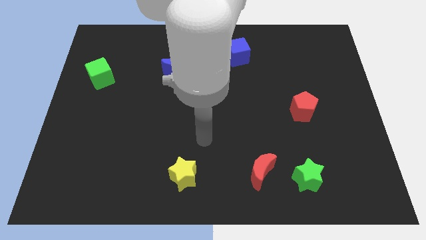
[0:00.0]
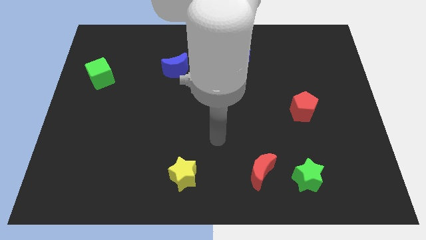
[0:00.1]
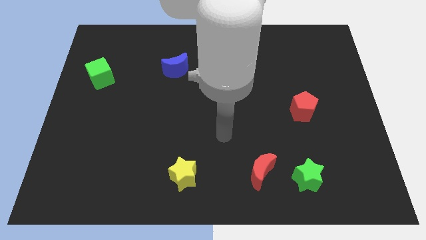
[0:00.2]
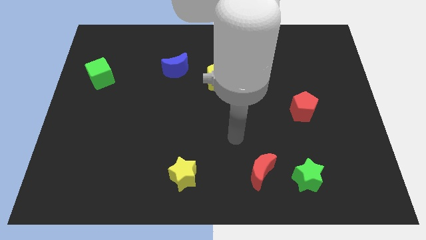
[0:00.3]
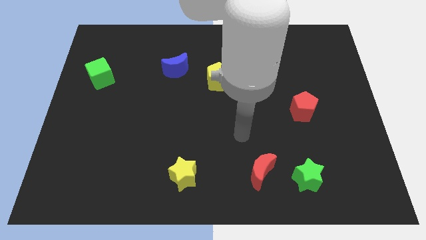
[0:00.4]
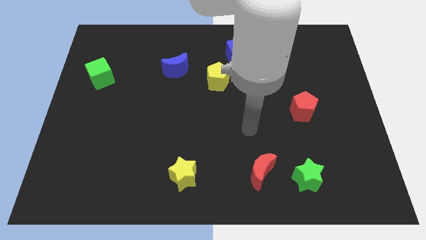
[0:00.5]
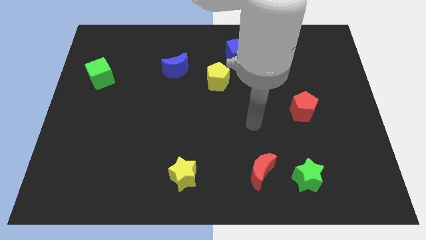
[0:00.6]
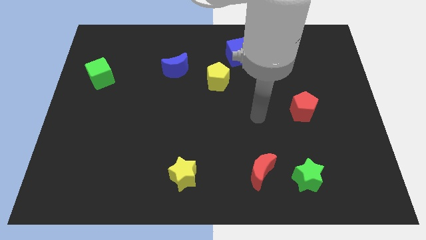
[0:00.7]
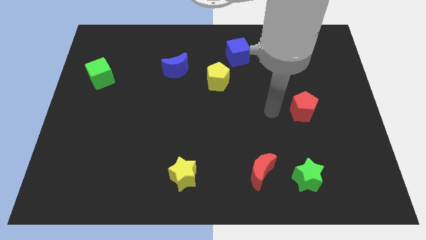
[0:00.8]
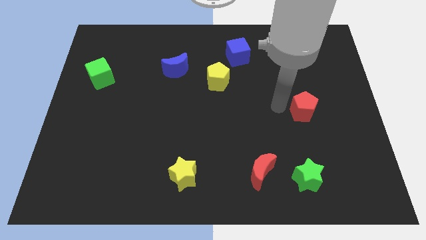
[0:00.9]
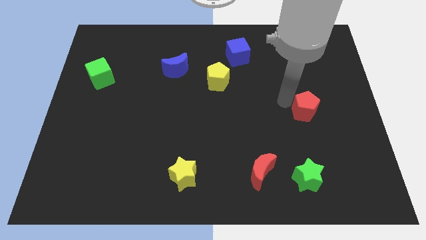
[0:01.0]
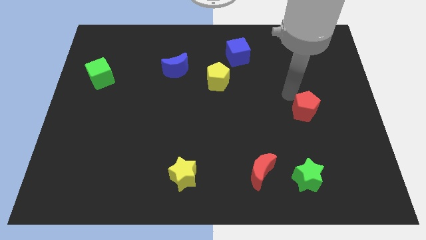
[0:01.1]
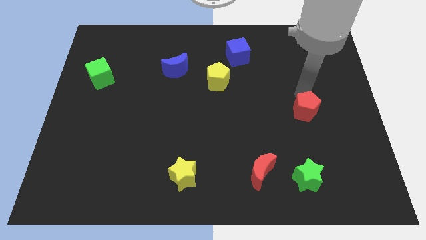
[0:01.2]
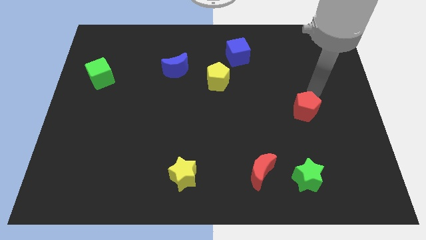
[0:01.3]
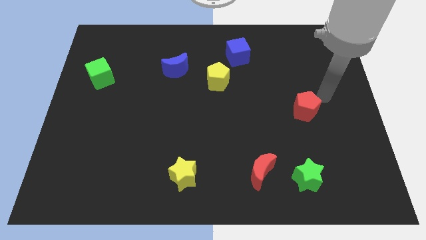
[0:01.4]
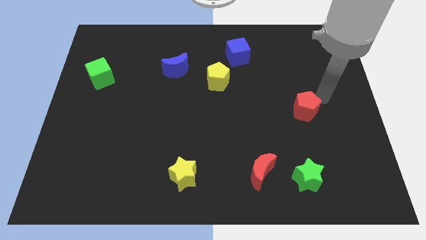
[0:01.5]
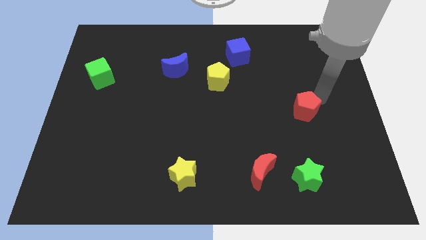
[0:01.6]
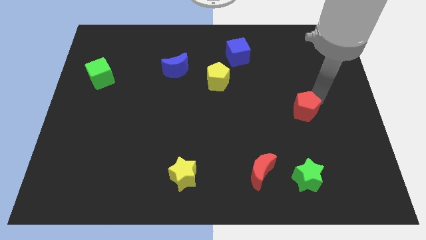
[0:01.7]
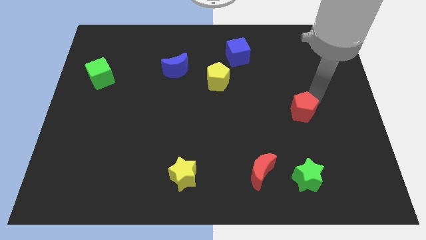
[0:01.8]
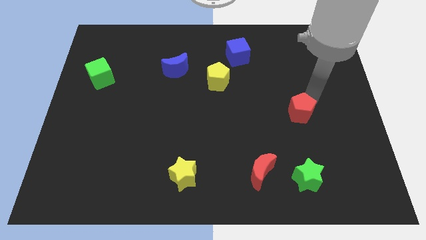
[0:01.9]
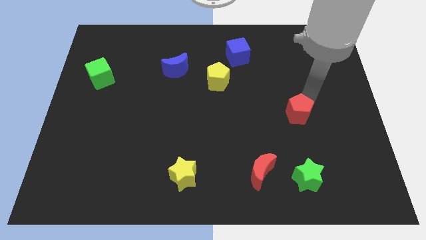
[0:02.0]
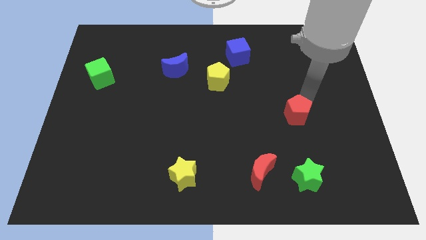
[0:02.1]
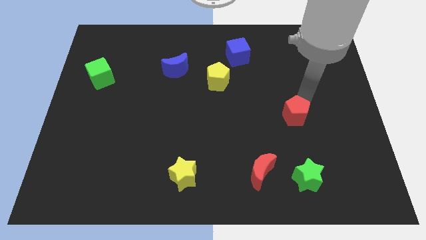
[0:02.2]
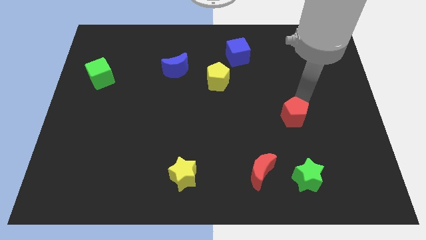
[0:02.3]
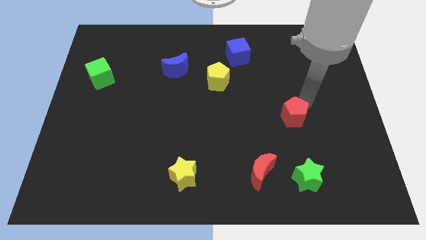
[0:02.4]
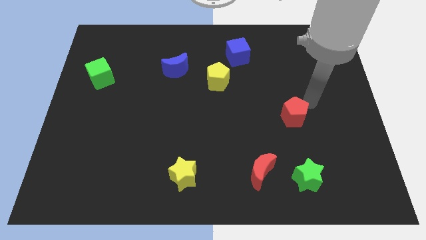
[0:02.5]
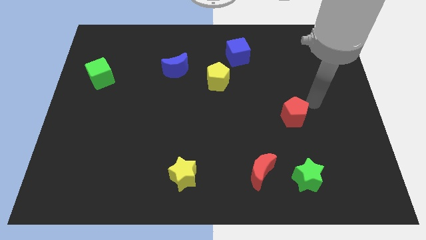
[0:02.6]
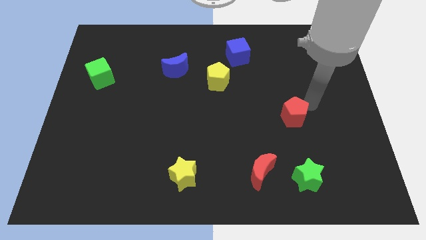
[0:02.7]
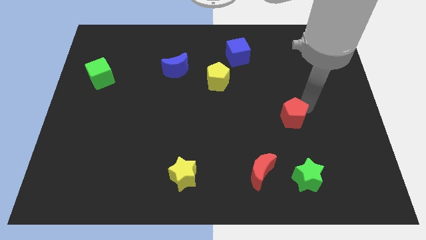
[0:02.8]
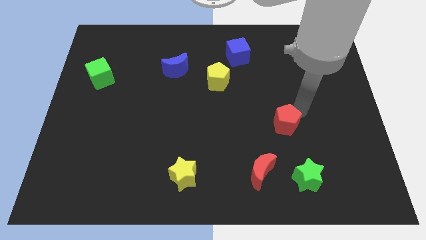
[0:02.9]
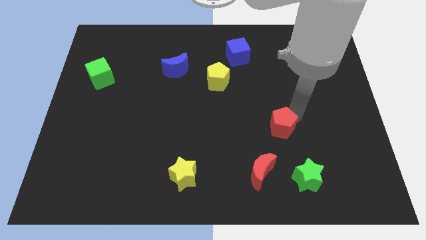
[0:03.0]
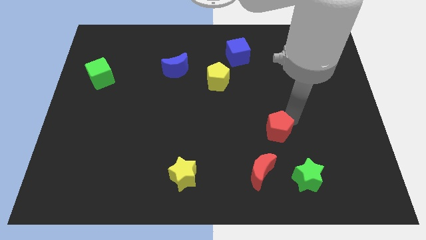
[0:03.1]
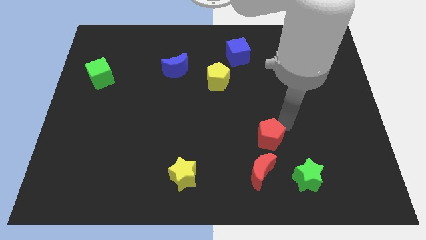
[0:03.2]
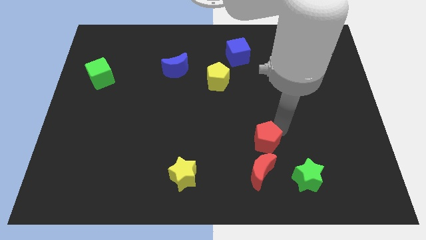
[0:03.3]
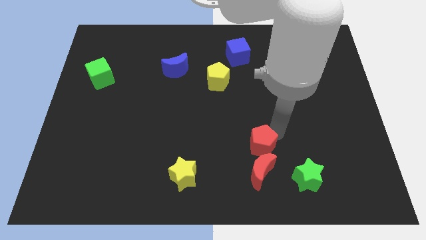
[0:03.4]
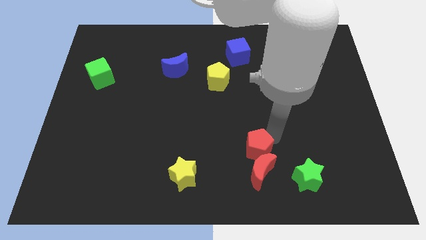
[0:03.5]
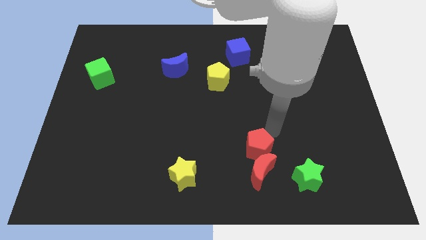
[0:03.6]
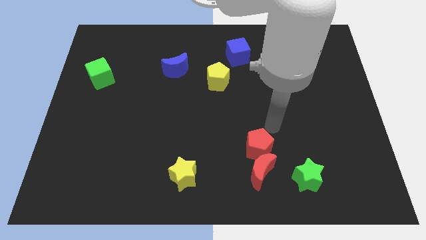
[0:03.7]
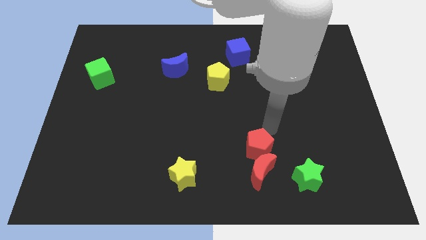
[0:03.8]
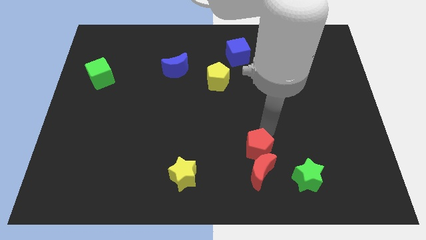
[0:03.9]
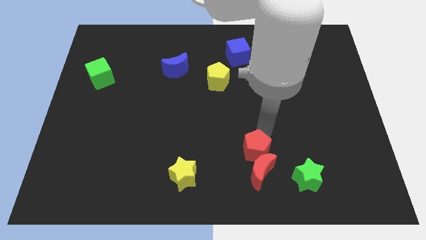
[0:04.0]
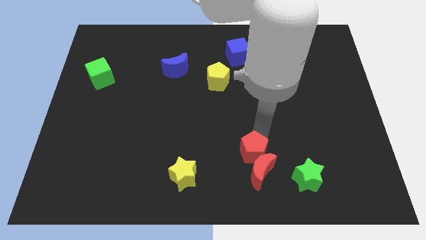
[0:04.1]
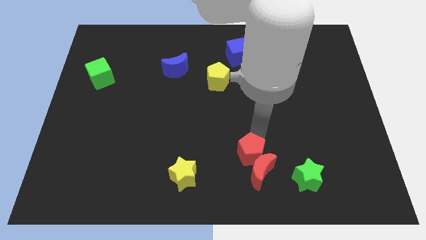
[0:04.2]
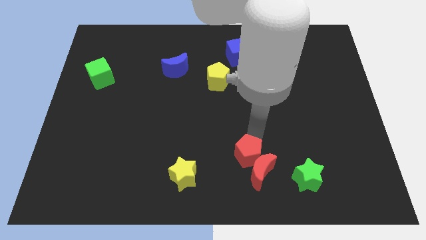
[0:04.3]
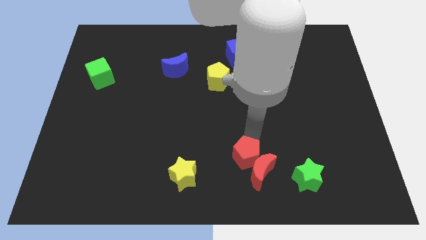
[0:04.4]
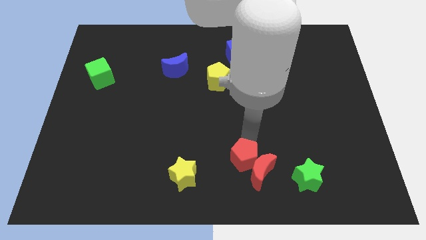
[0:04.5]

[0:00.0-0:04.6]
push the red pentagon just right of the yellow star

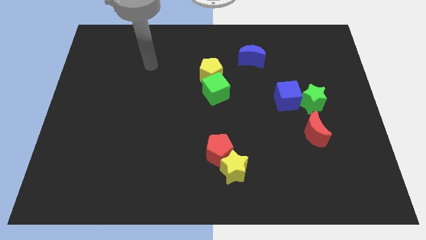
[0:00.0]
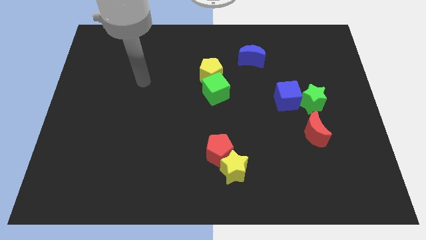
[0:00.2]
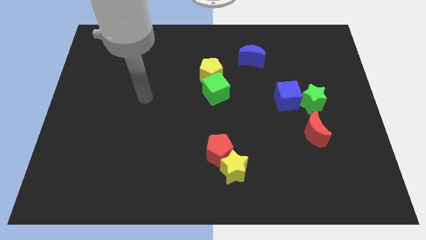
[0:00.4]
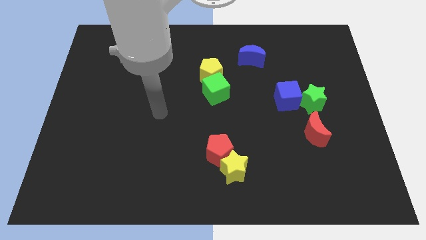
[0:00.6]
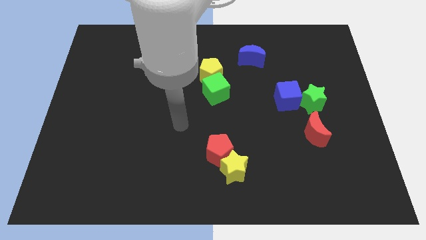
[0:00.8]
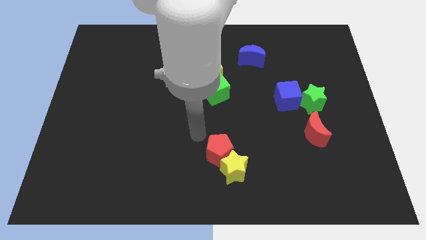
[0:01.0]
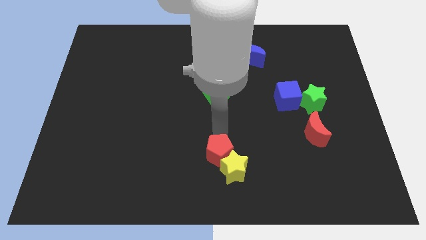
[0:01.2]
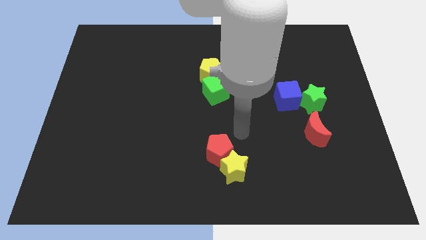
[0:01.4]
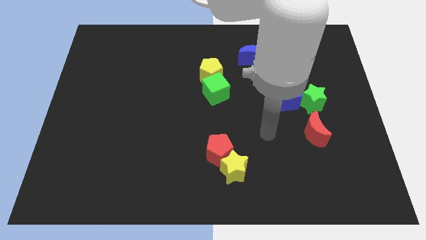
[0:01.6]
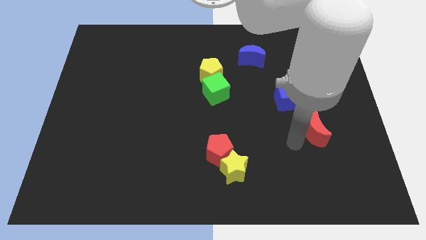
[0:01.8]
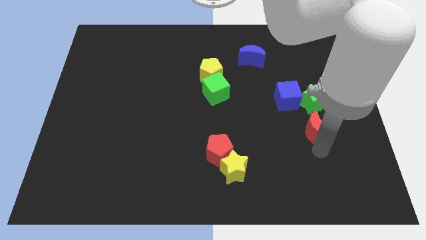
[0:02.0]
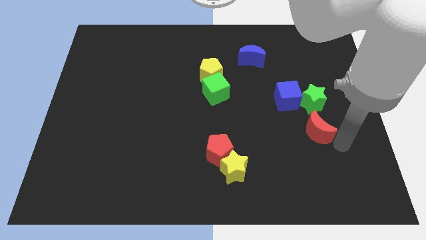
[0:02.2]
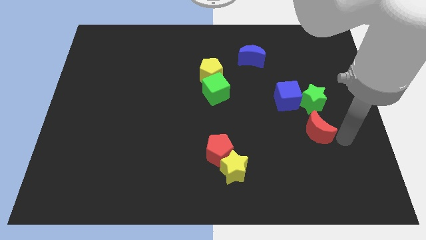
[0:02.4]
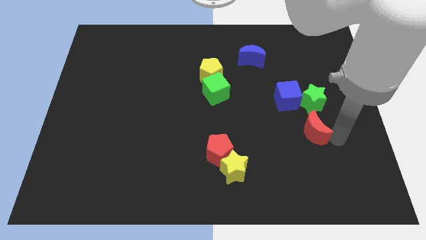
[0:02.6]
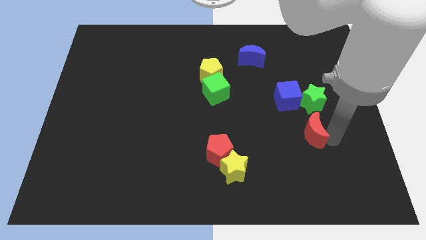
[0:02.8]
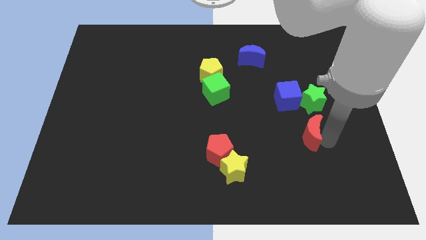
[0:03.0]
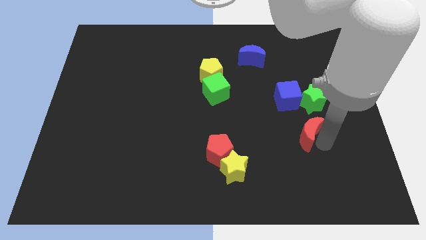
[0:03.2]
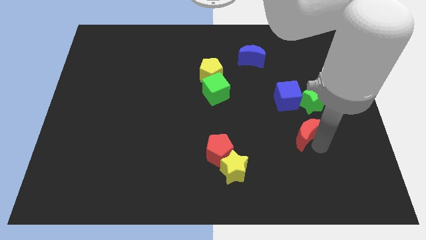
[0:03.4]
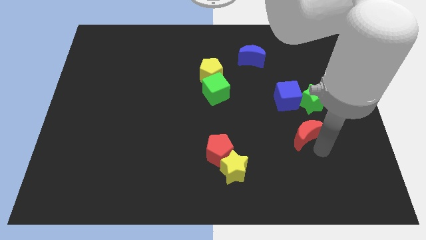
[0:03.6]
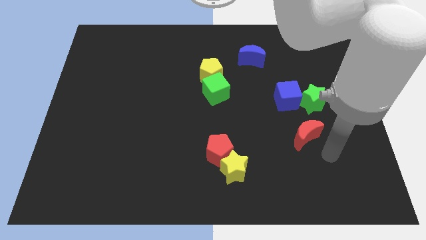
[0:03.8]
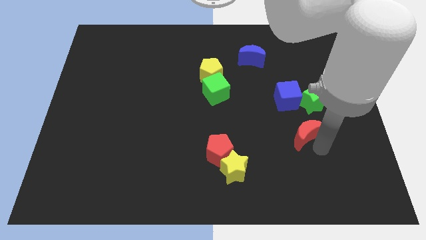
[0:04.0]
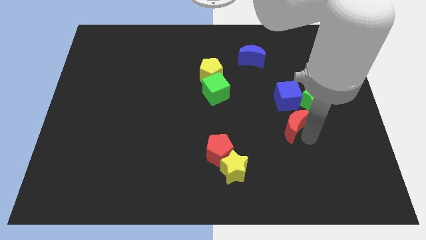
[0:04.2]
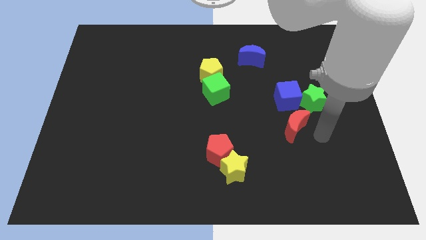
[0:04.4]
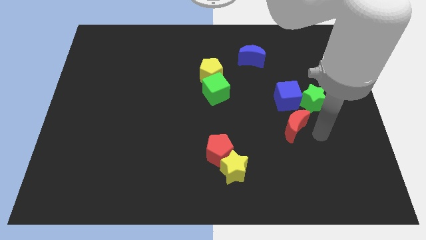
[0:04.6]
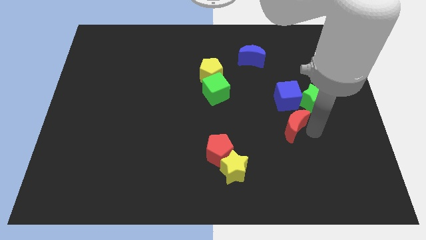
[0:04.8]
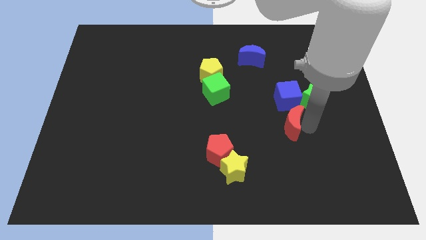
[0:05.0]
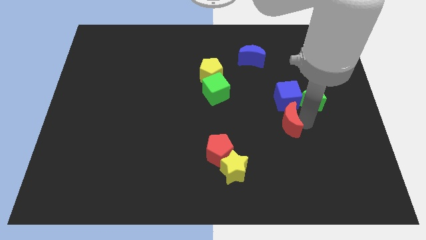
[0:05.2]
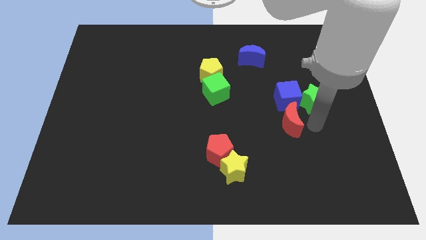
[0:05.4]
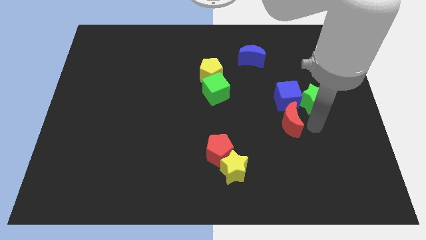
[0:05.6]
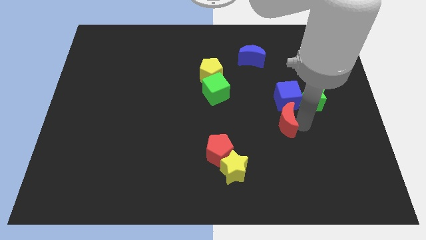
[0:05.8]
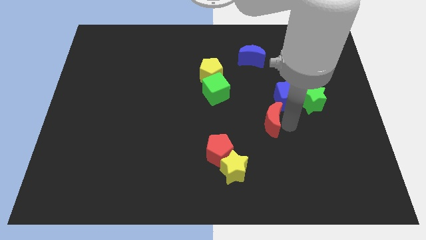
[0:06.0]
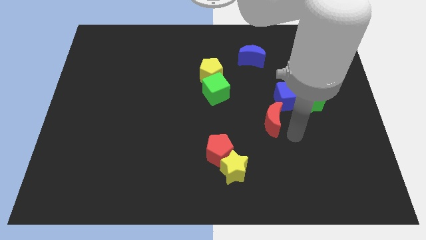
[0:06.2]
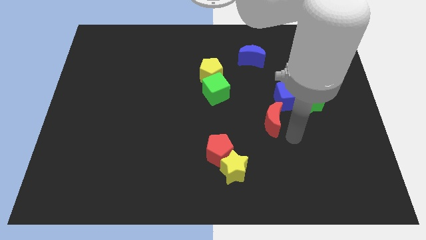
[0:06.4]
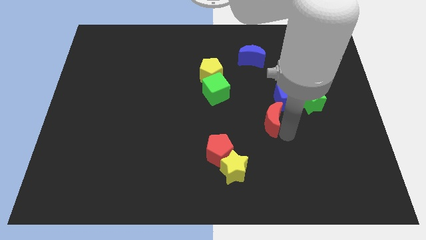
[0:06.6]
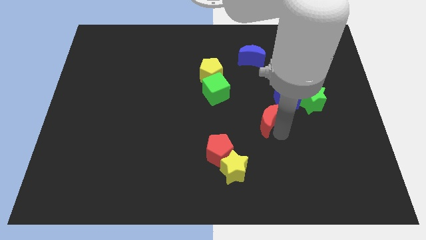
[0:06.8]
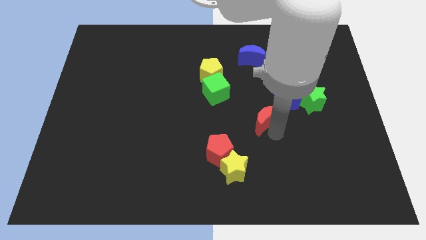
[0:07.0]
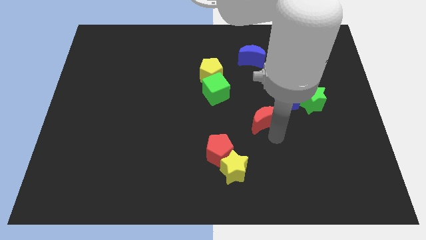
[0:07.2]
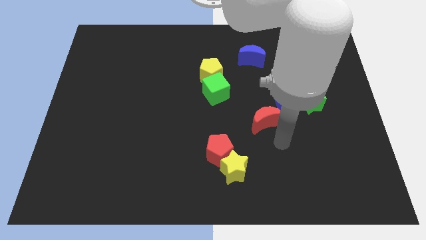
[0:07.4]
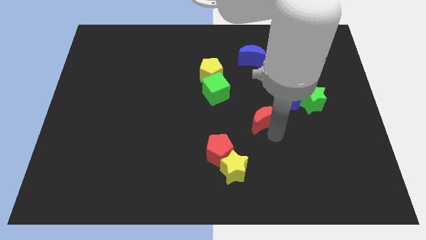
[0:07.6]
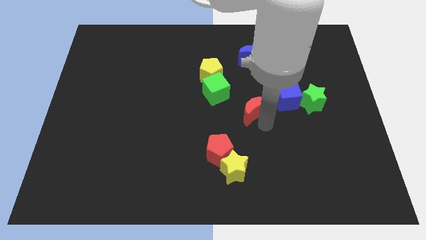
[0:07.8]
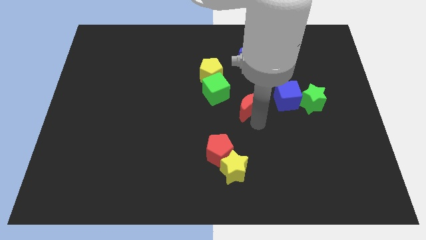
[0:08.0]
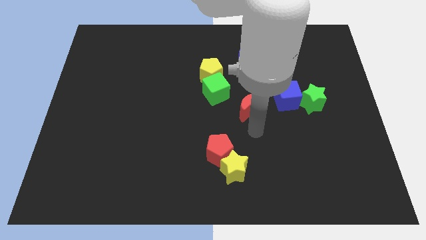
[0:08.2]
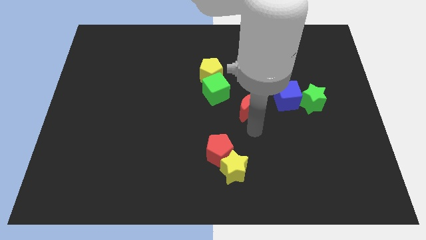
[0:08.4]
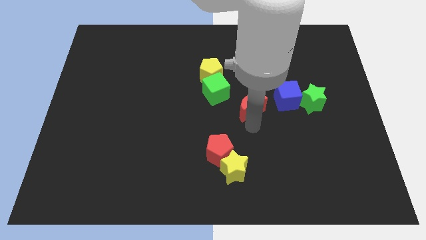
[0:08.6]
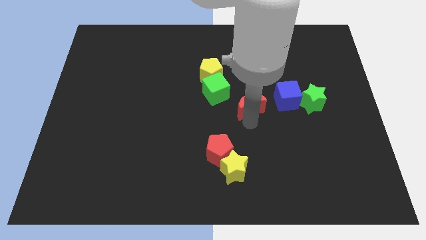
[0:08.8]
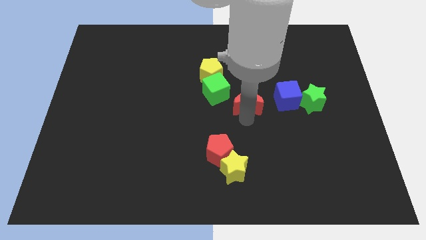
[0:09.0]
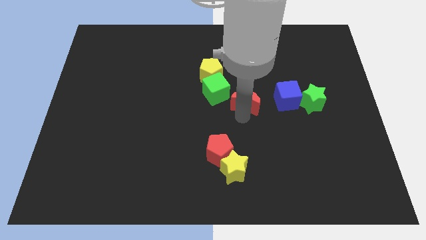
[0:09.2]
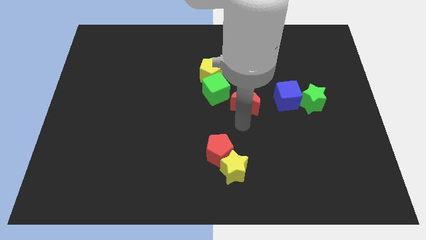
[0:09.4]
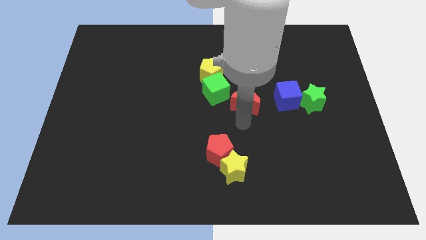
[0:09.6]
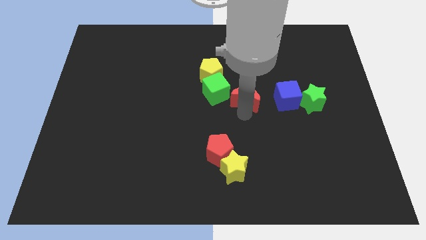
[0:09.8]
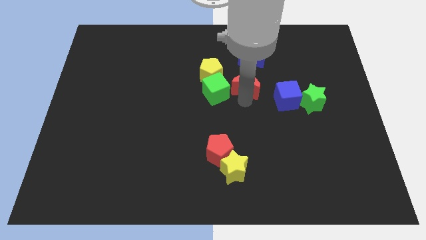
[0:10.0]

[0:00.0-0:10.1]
put the red moon right of the yellow pentagon
